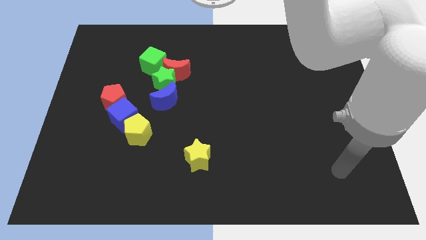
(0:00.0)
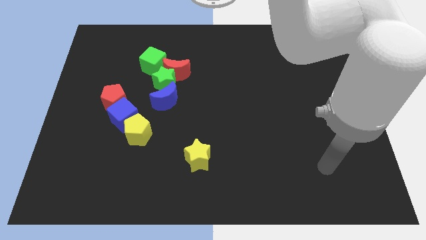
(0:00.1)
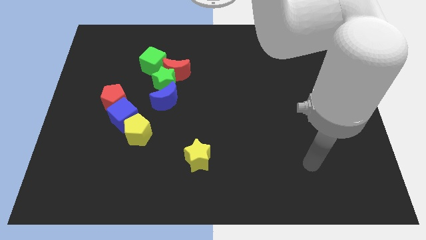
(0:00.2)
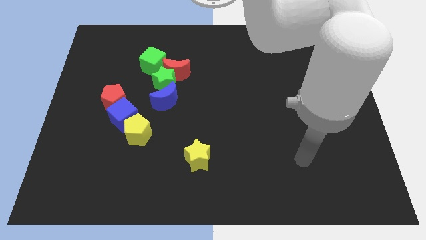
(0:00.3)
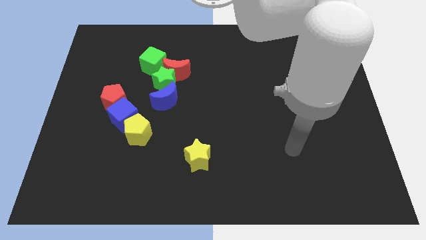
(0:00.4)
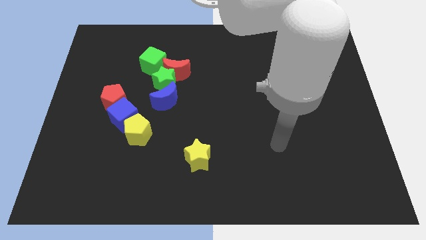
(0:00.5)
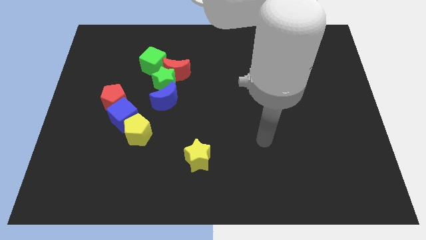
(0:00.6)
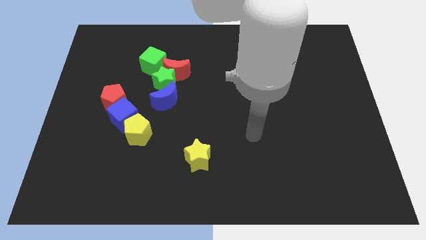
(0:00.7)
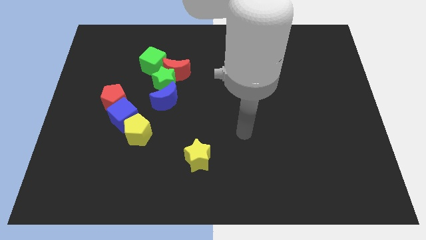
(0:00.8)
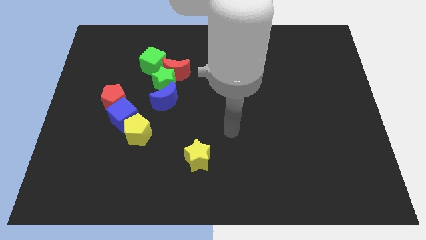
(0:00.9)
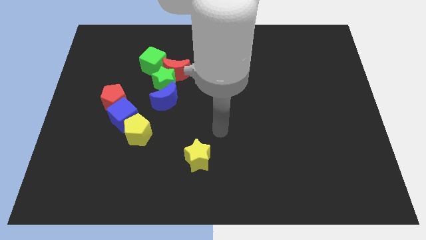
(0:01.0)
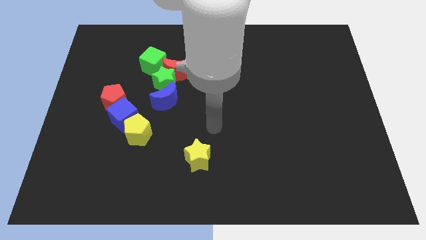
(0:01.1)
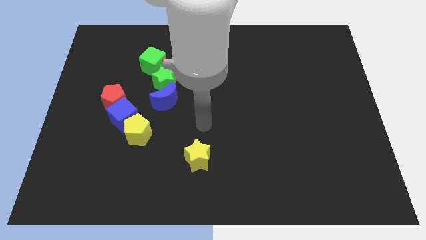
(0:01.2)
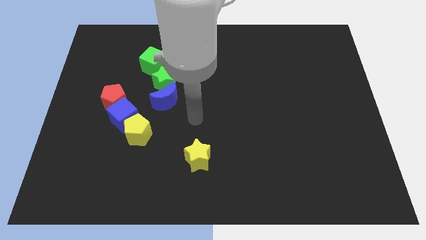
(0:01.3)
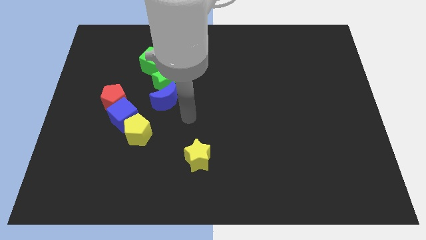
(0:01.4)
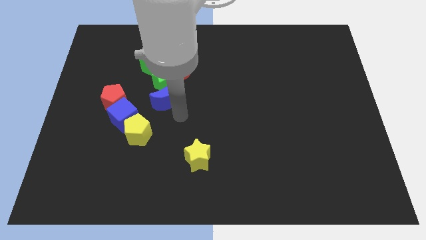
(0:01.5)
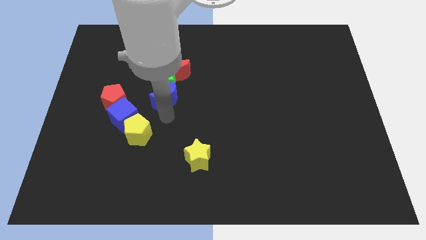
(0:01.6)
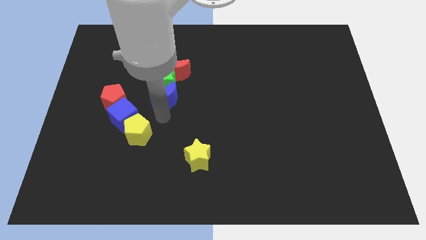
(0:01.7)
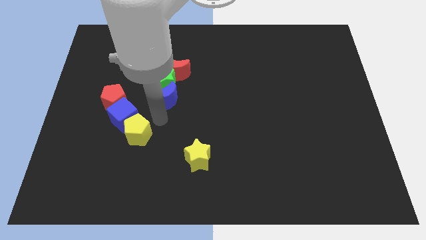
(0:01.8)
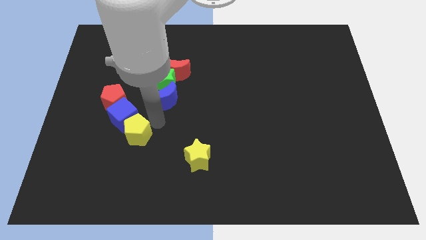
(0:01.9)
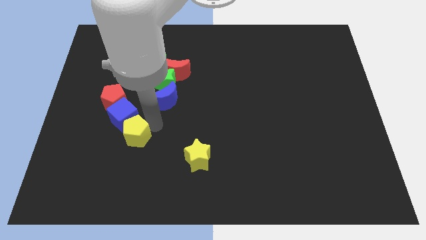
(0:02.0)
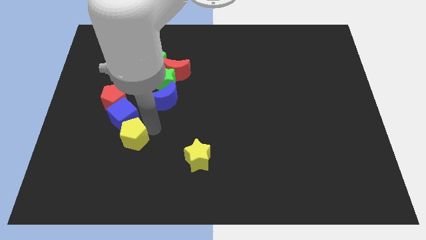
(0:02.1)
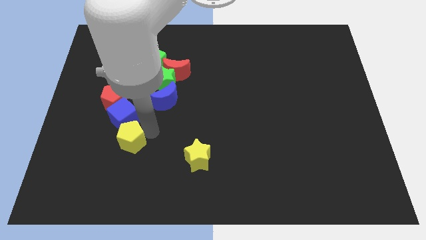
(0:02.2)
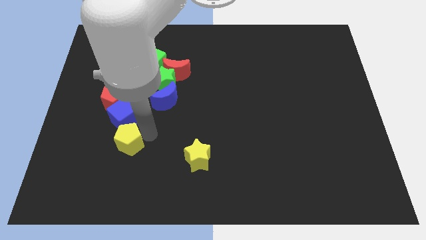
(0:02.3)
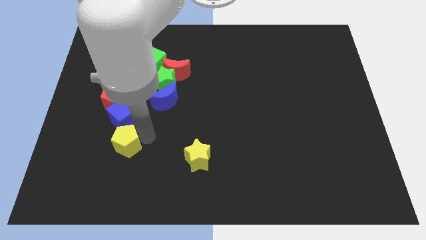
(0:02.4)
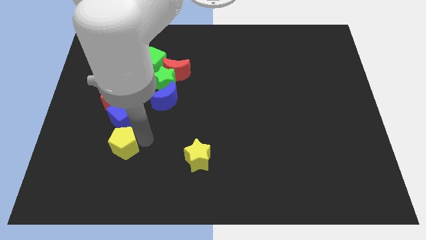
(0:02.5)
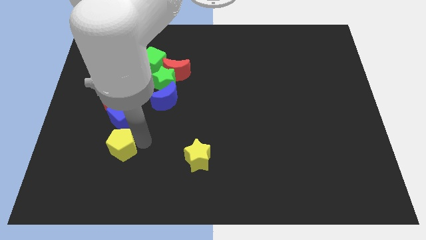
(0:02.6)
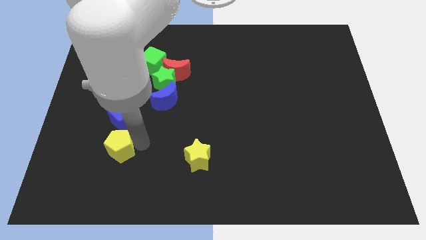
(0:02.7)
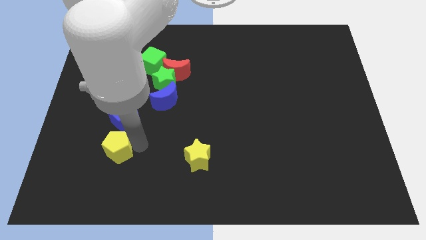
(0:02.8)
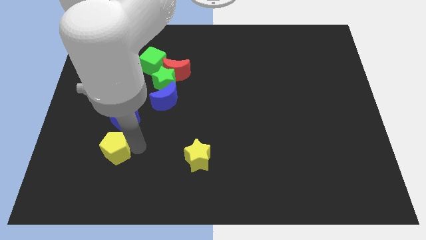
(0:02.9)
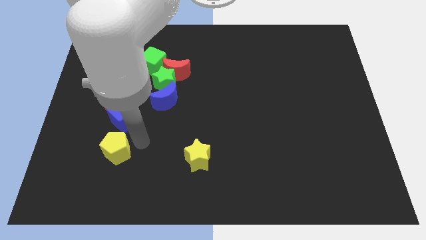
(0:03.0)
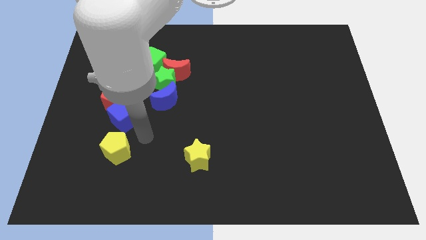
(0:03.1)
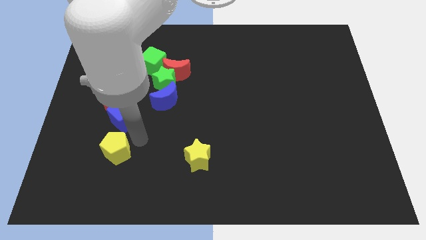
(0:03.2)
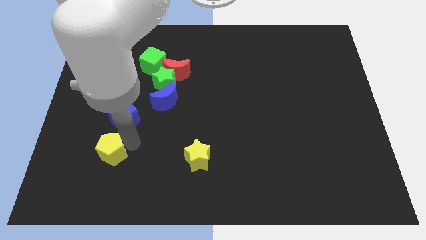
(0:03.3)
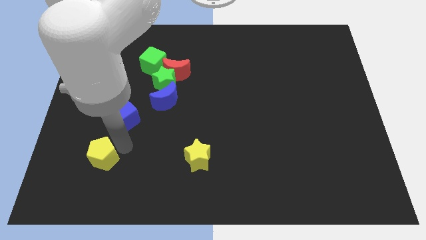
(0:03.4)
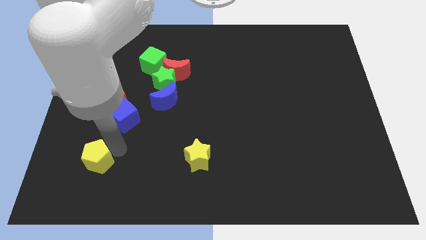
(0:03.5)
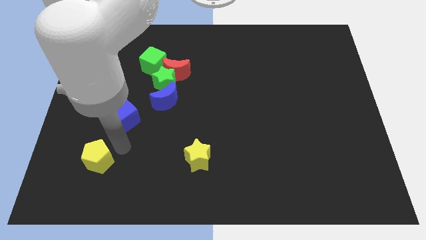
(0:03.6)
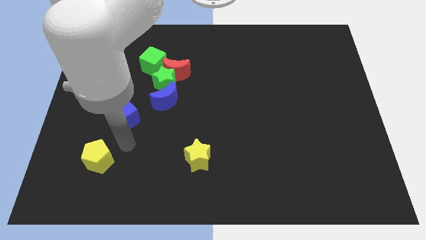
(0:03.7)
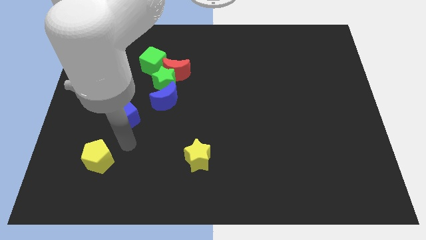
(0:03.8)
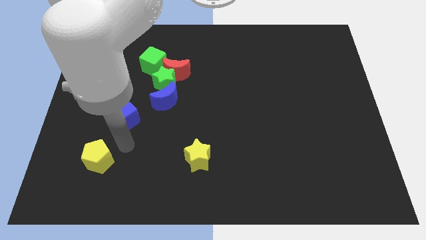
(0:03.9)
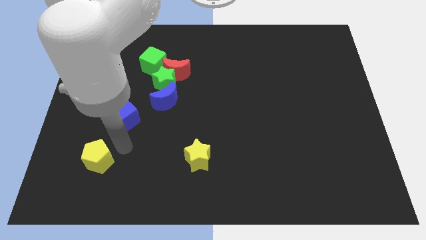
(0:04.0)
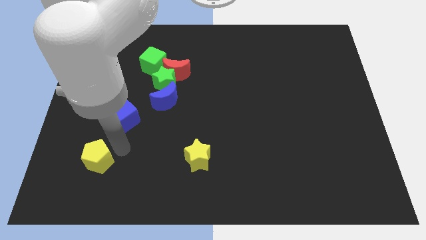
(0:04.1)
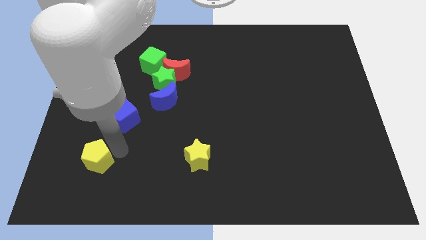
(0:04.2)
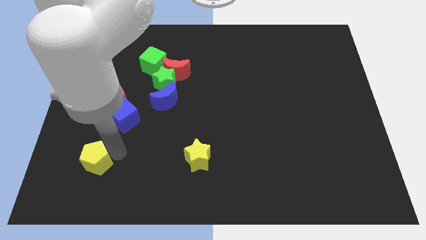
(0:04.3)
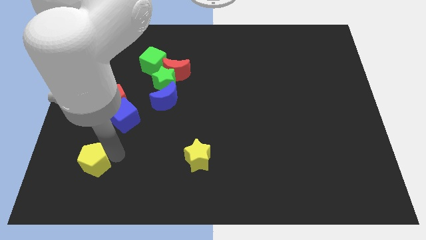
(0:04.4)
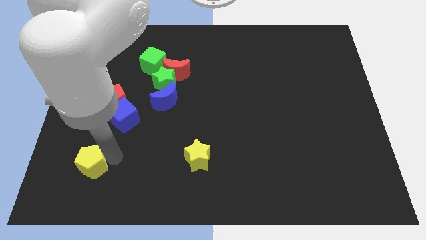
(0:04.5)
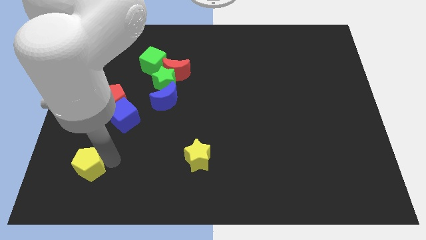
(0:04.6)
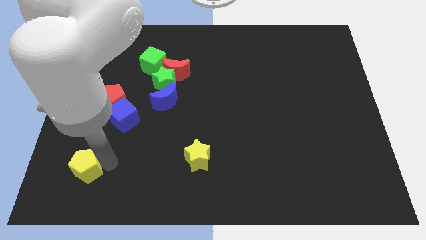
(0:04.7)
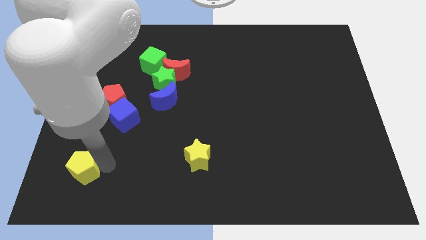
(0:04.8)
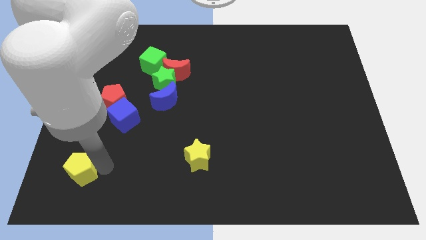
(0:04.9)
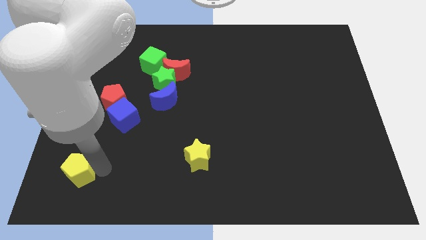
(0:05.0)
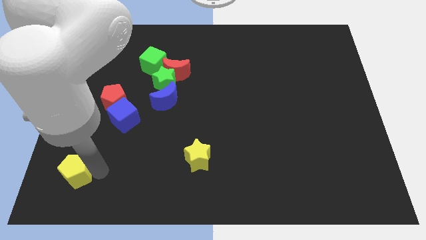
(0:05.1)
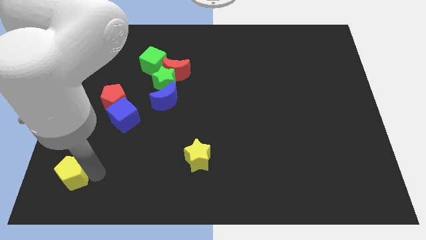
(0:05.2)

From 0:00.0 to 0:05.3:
push the yellow pentagon to the bottom left
